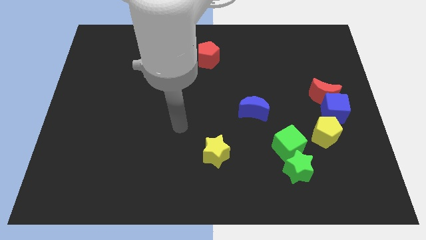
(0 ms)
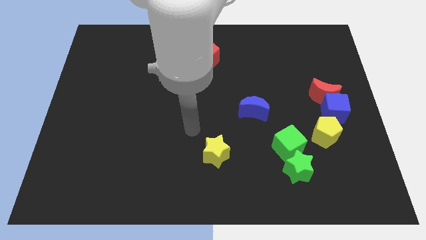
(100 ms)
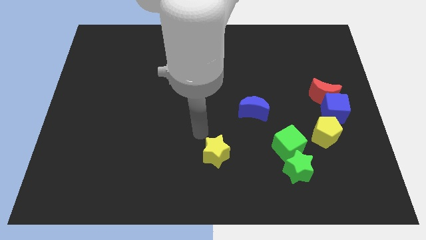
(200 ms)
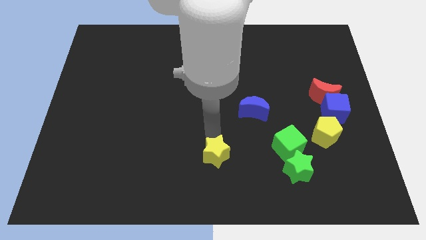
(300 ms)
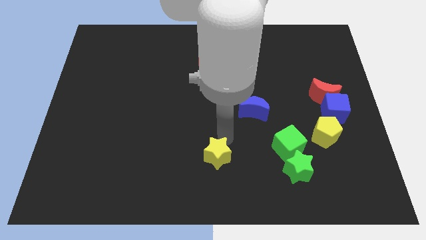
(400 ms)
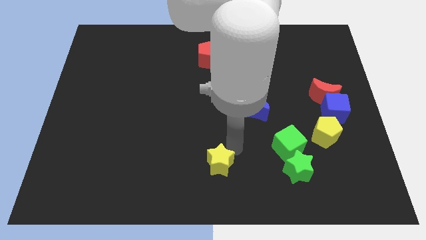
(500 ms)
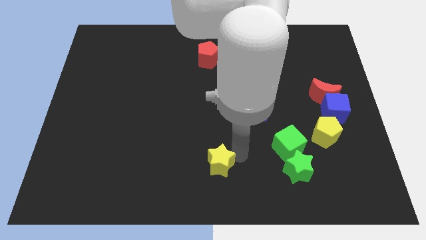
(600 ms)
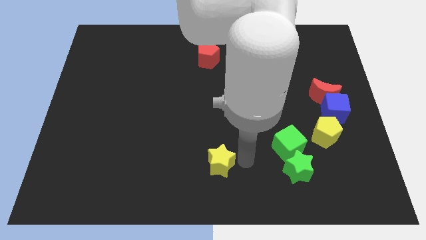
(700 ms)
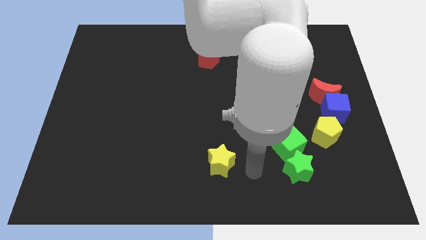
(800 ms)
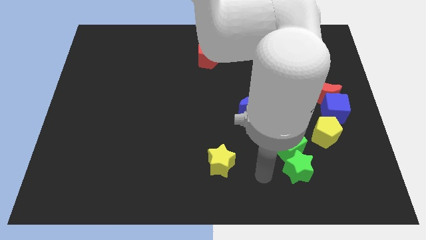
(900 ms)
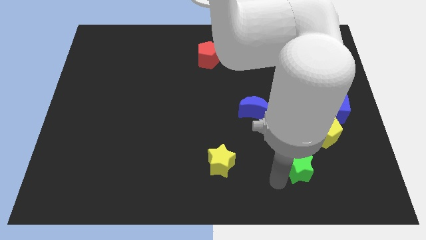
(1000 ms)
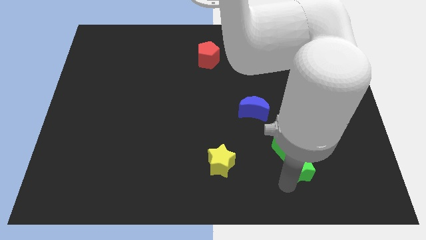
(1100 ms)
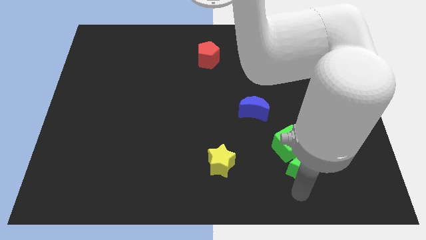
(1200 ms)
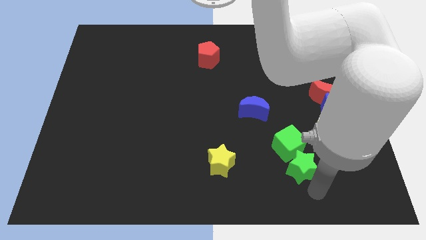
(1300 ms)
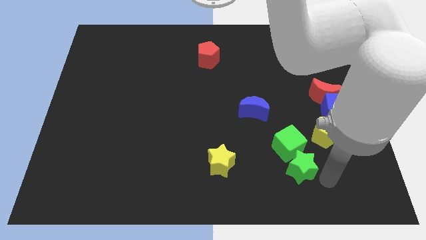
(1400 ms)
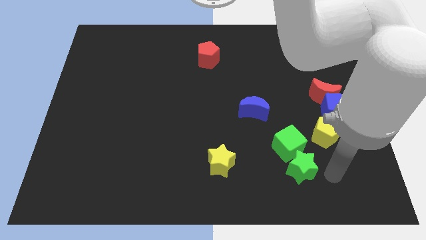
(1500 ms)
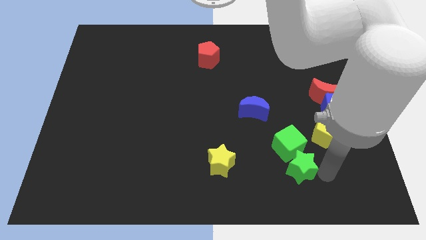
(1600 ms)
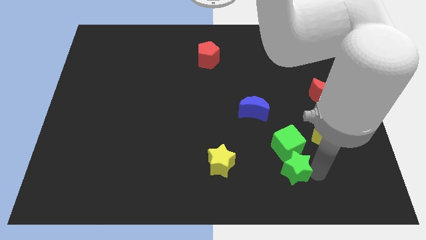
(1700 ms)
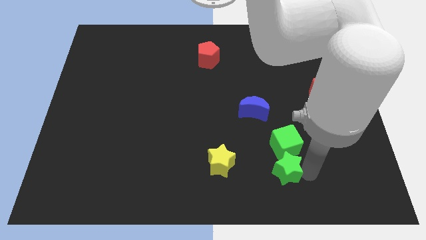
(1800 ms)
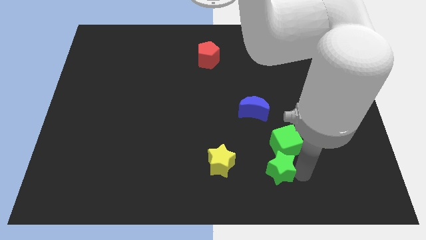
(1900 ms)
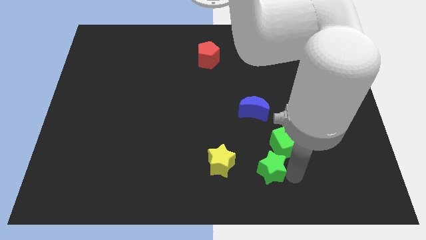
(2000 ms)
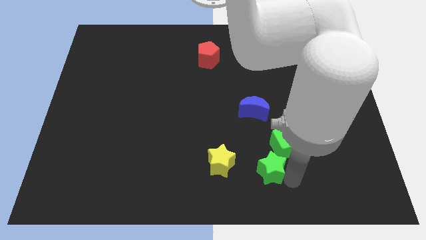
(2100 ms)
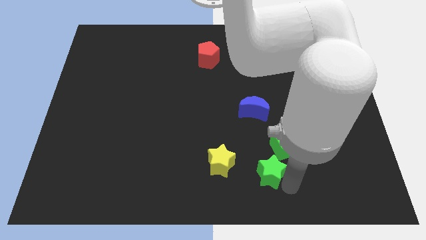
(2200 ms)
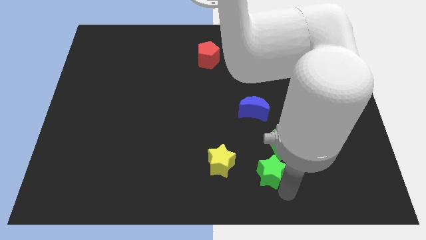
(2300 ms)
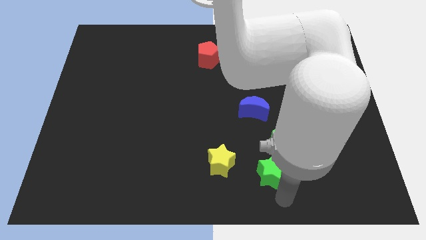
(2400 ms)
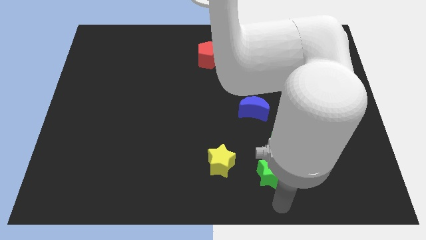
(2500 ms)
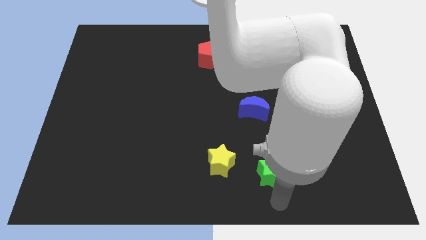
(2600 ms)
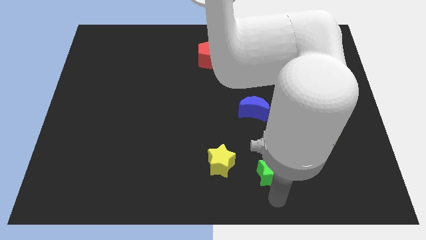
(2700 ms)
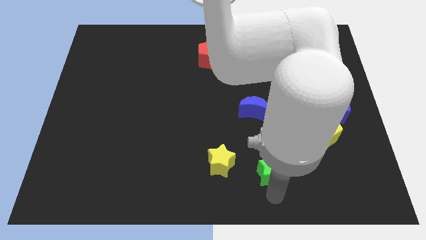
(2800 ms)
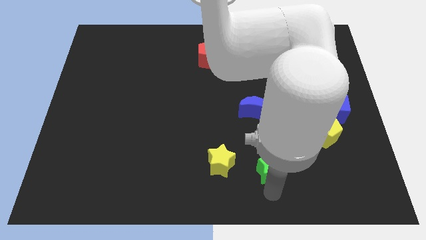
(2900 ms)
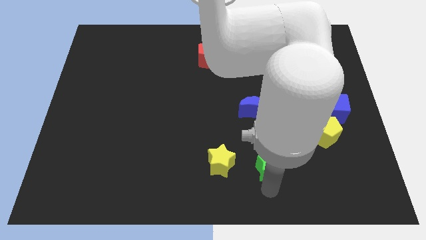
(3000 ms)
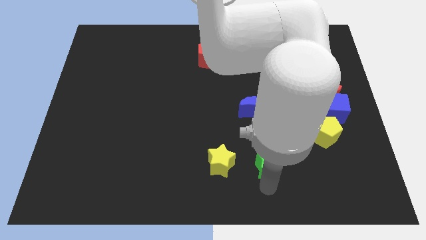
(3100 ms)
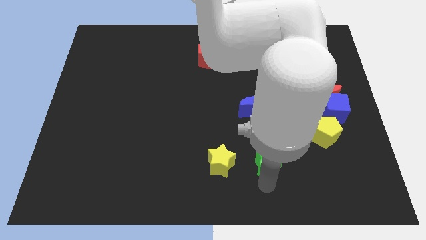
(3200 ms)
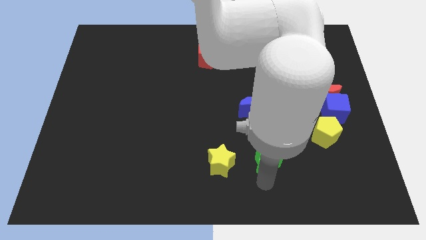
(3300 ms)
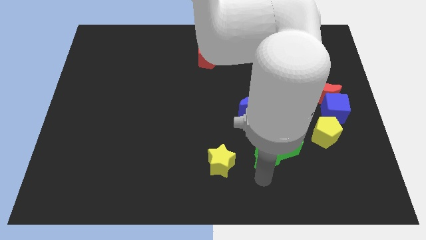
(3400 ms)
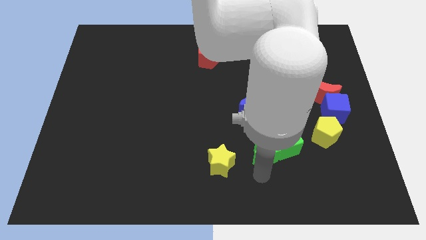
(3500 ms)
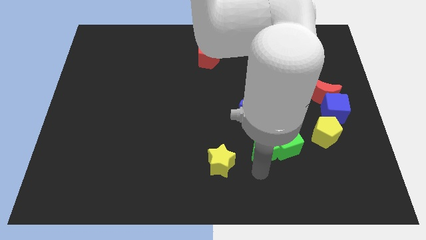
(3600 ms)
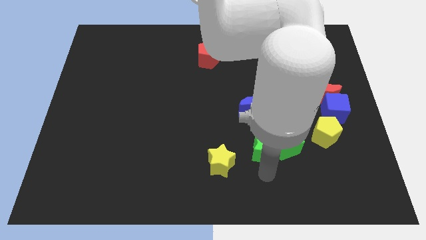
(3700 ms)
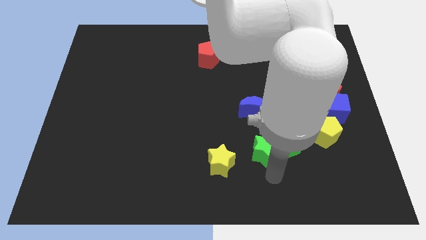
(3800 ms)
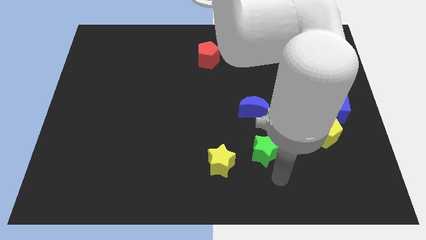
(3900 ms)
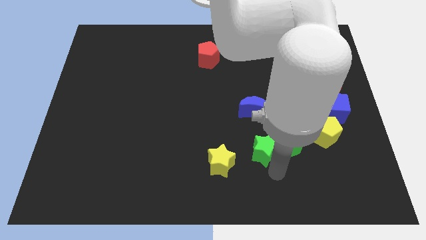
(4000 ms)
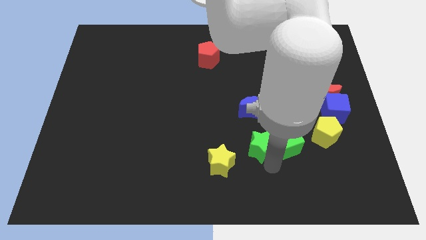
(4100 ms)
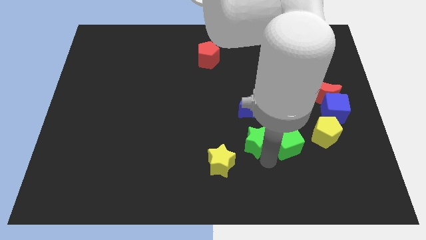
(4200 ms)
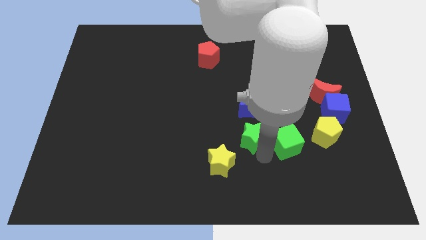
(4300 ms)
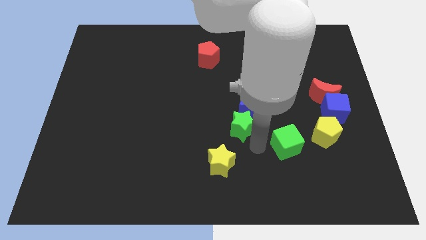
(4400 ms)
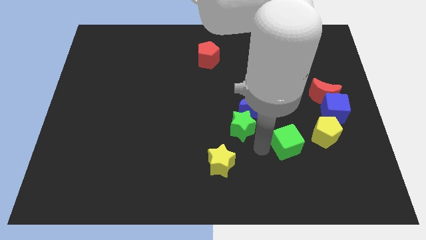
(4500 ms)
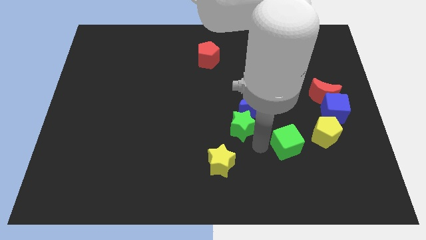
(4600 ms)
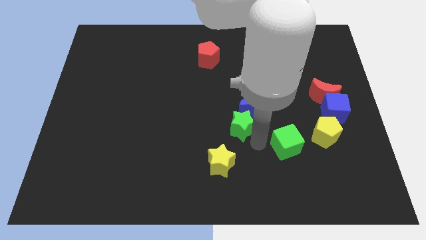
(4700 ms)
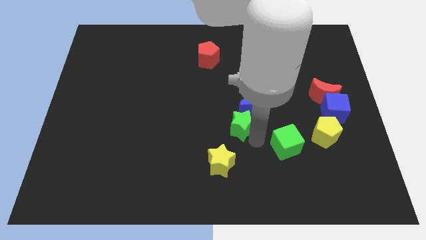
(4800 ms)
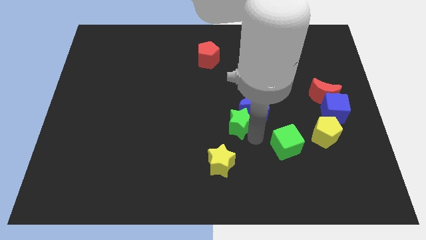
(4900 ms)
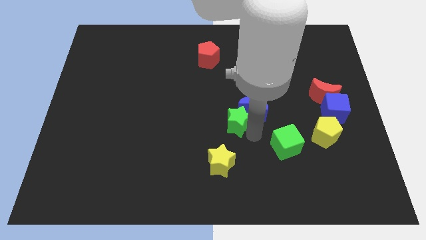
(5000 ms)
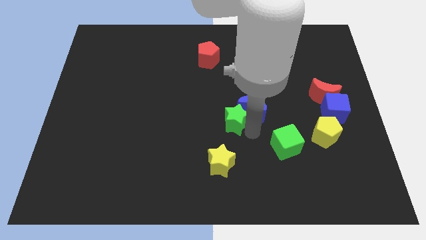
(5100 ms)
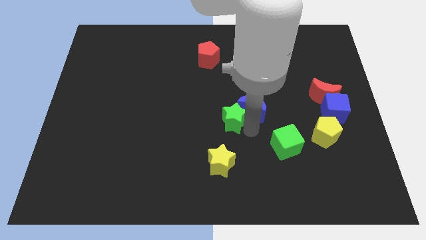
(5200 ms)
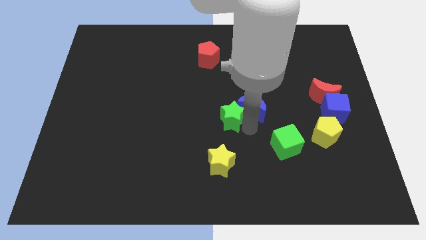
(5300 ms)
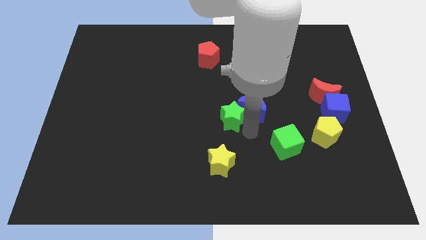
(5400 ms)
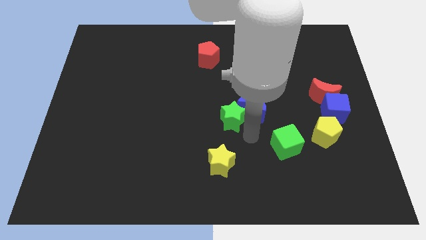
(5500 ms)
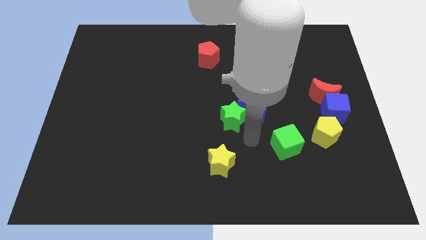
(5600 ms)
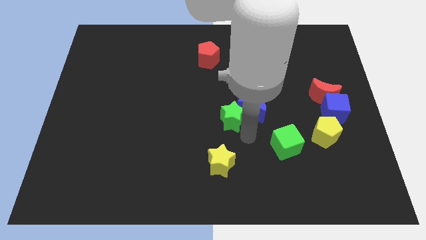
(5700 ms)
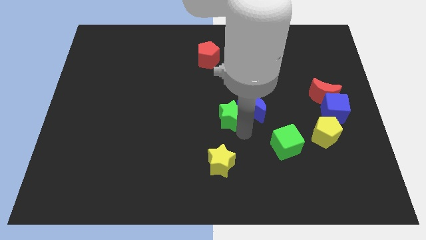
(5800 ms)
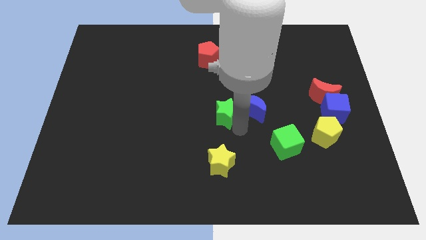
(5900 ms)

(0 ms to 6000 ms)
move the green star up and left diagonally

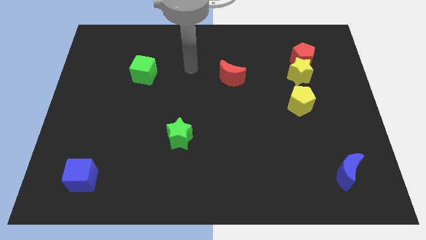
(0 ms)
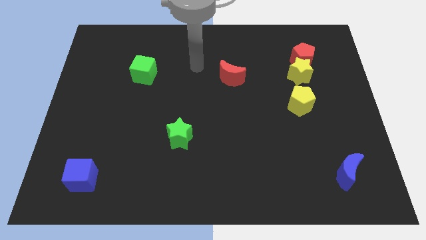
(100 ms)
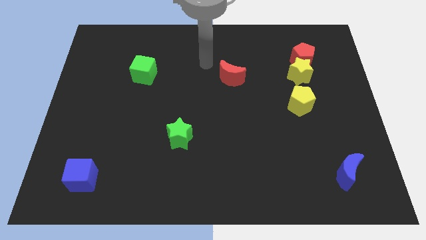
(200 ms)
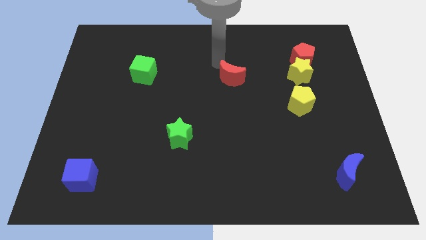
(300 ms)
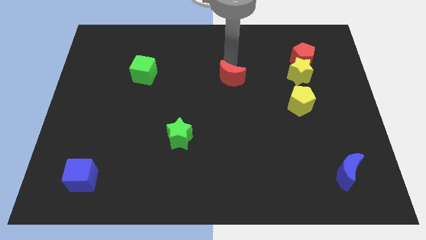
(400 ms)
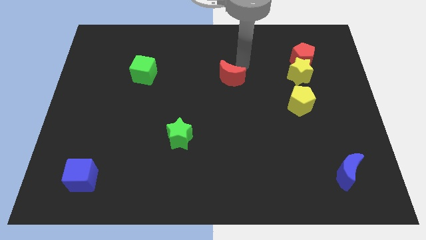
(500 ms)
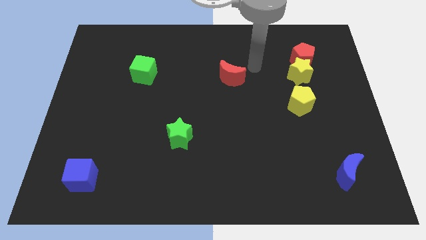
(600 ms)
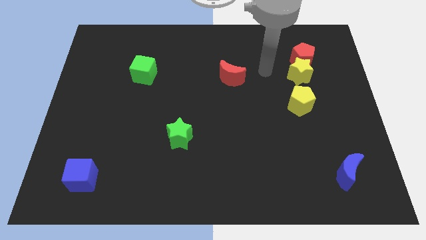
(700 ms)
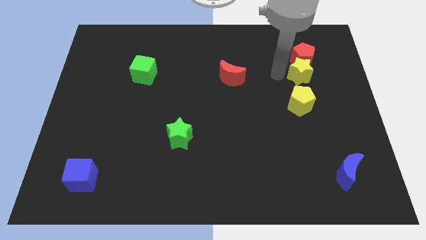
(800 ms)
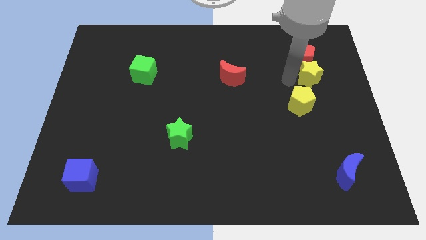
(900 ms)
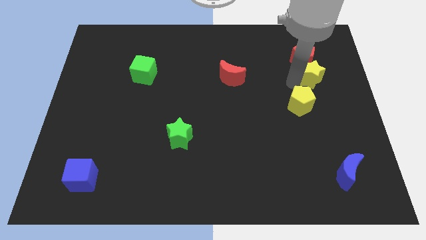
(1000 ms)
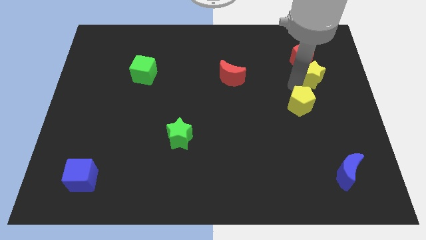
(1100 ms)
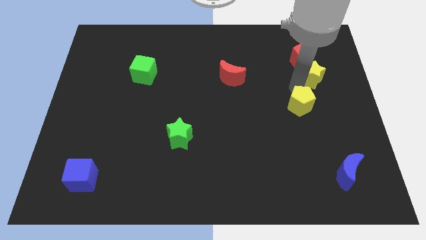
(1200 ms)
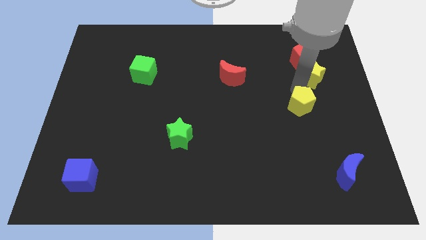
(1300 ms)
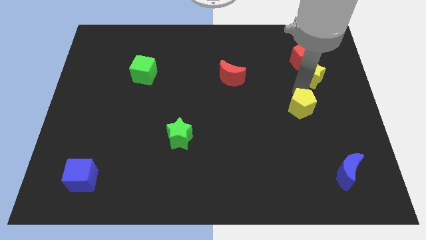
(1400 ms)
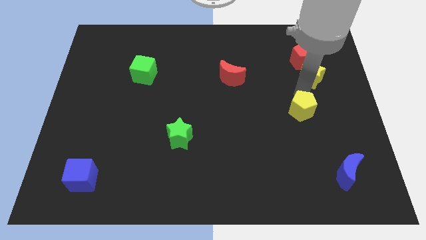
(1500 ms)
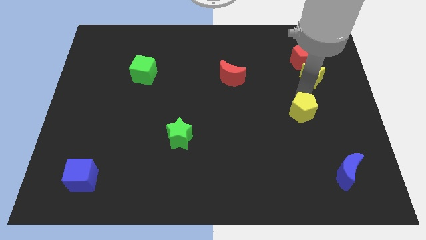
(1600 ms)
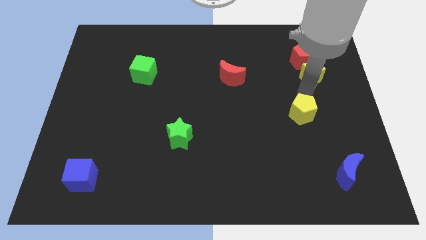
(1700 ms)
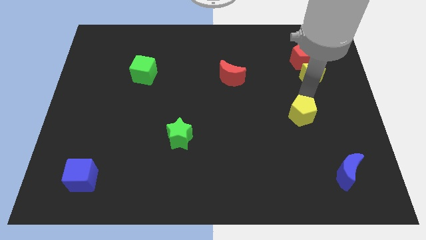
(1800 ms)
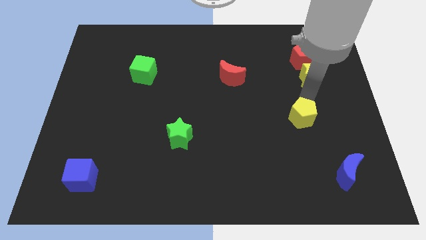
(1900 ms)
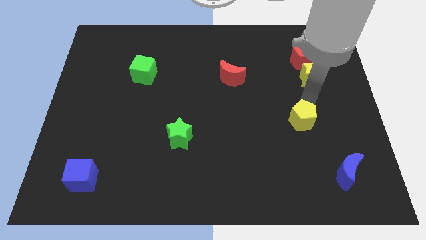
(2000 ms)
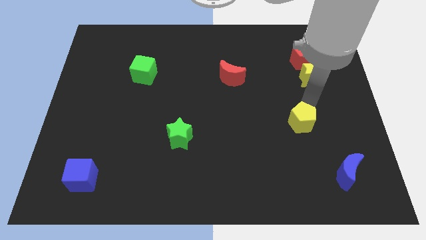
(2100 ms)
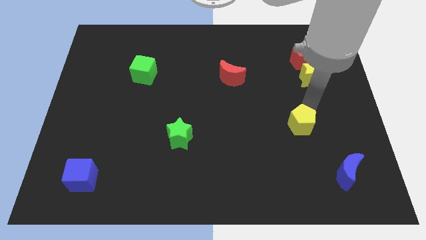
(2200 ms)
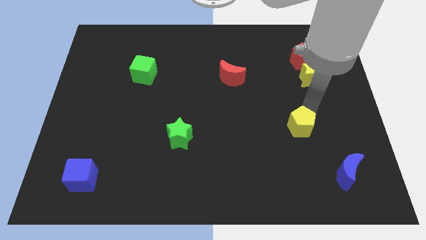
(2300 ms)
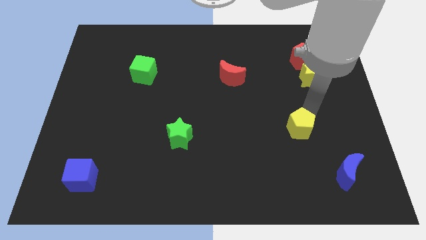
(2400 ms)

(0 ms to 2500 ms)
push the yellow pentagon downwards a little bit
